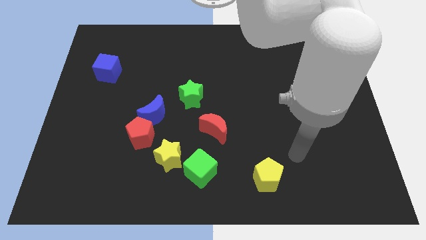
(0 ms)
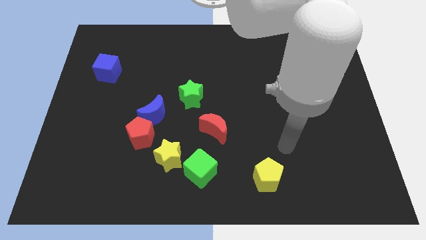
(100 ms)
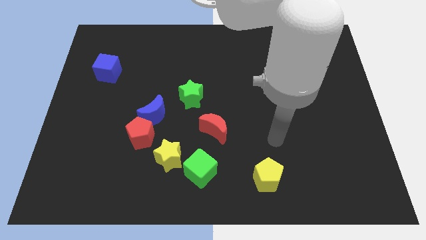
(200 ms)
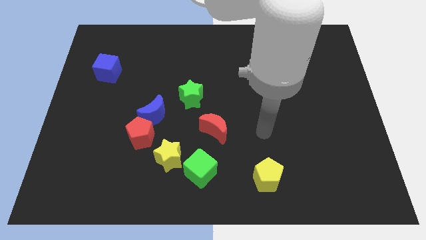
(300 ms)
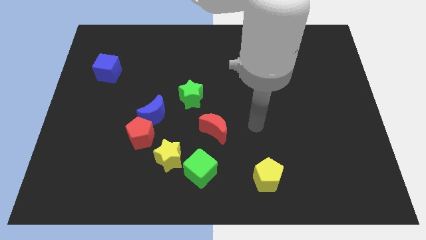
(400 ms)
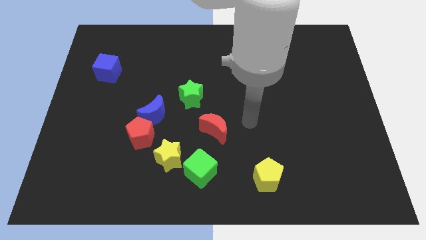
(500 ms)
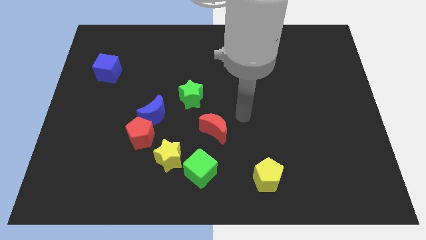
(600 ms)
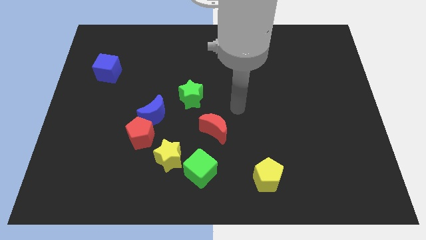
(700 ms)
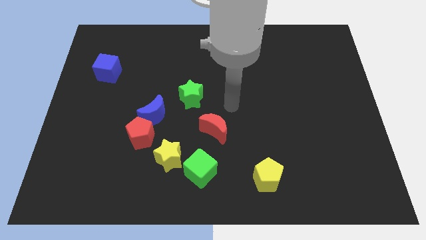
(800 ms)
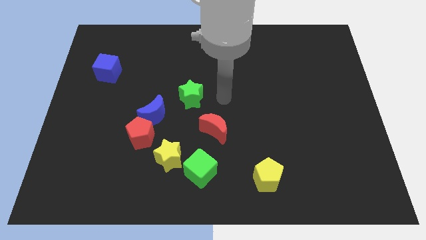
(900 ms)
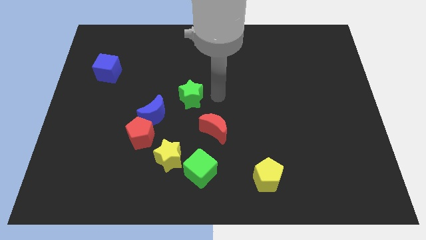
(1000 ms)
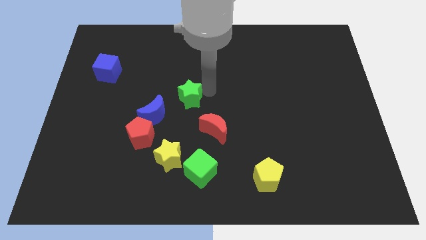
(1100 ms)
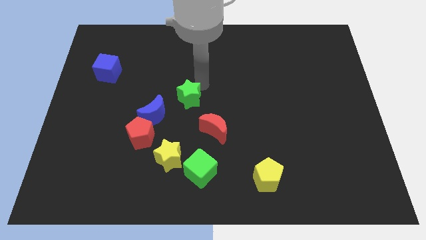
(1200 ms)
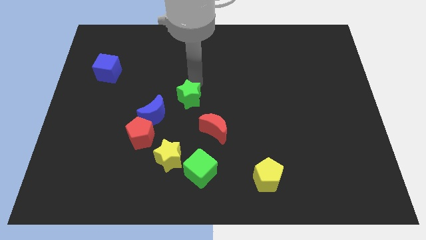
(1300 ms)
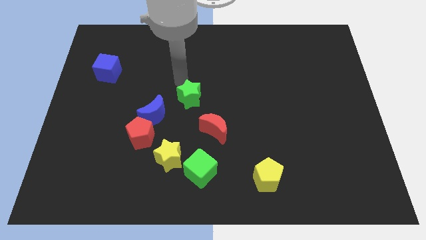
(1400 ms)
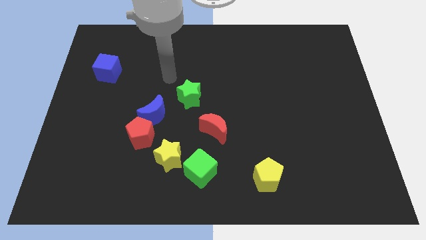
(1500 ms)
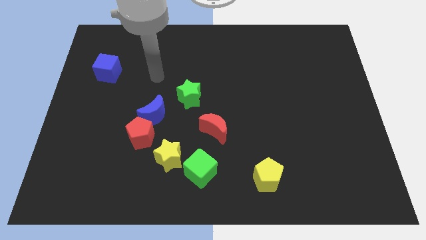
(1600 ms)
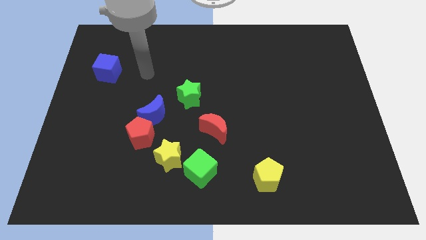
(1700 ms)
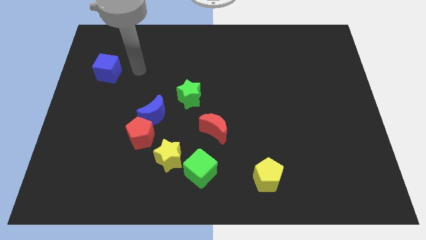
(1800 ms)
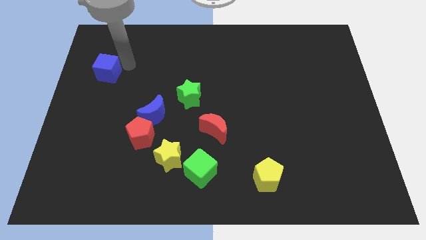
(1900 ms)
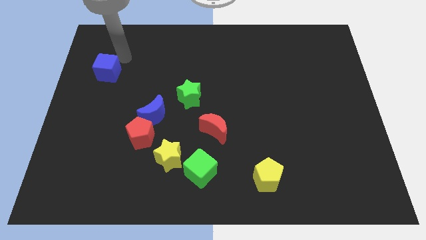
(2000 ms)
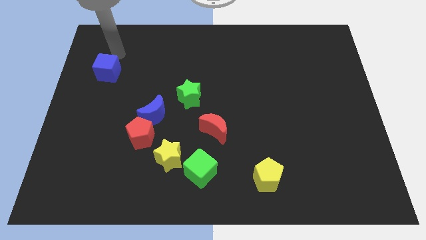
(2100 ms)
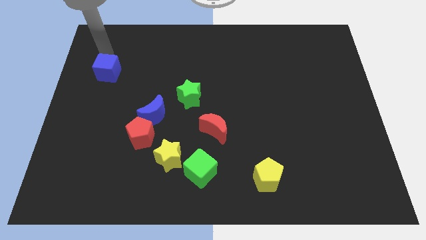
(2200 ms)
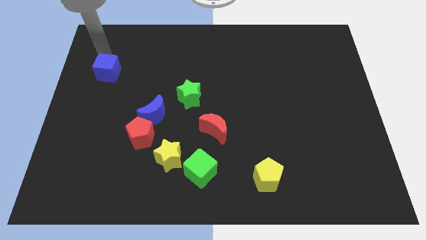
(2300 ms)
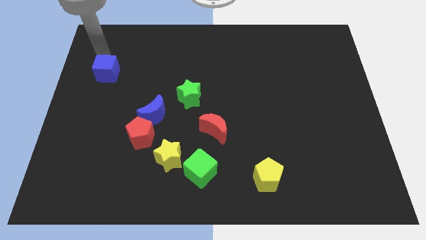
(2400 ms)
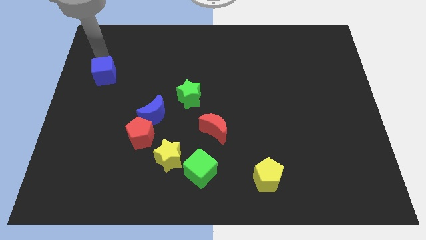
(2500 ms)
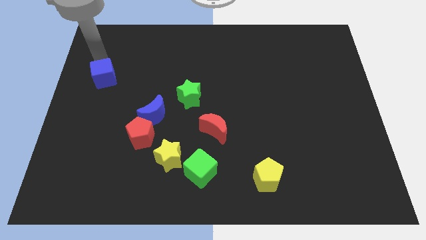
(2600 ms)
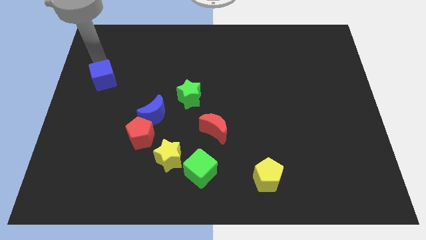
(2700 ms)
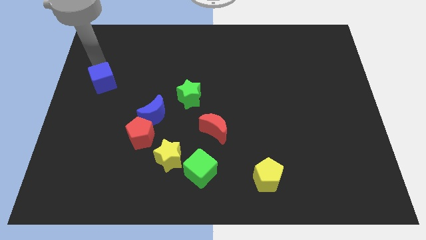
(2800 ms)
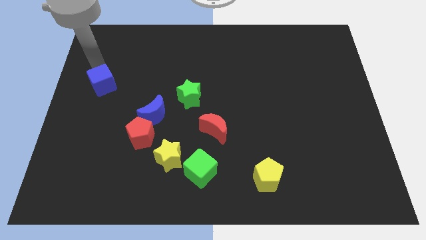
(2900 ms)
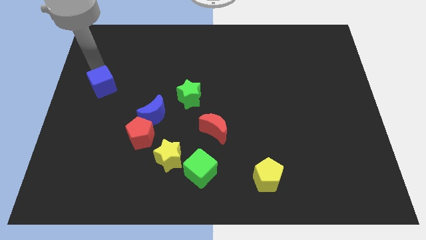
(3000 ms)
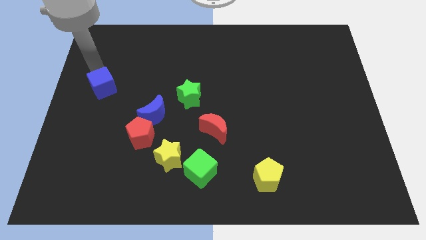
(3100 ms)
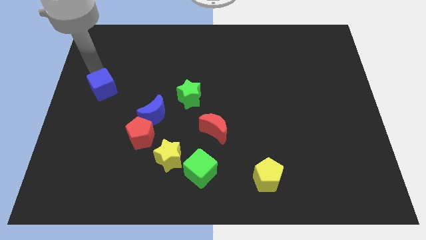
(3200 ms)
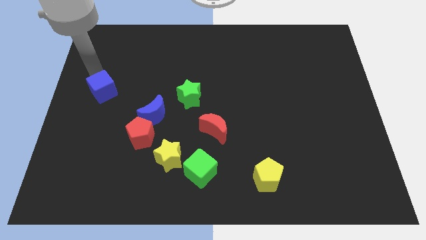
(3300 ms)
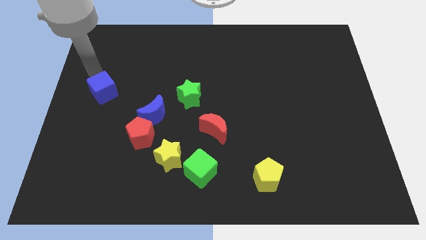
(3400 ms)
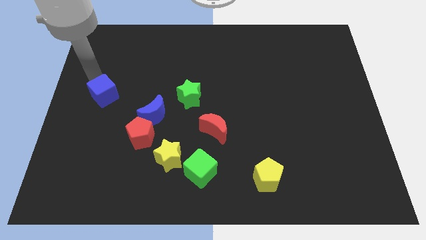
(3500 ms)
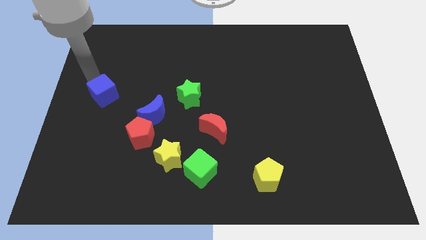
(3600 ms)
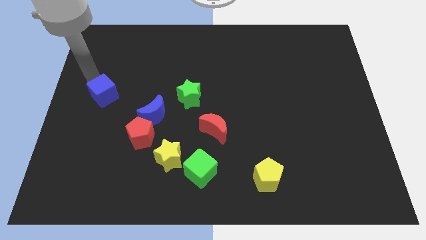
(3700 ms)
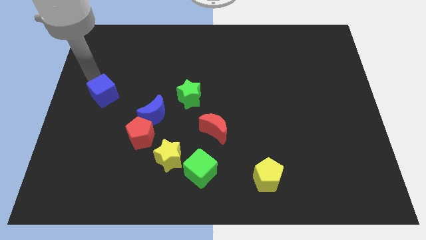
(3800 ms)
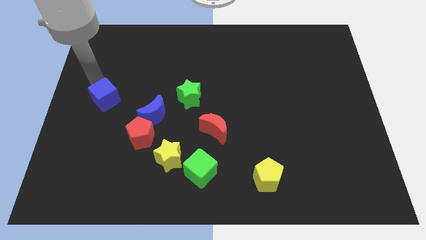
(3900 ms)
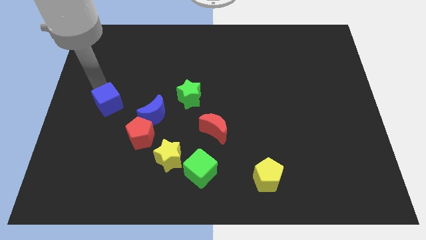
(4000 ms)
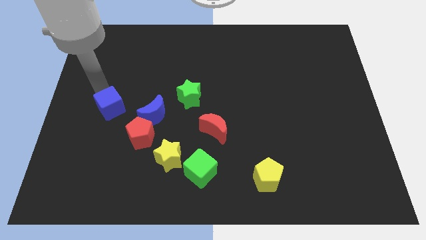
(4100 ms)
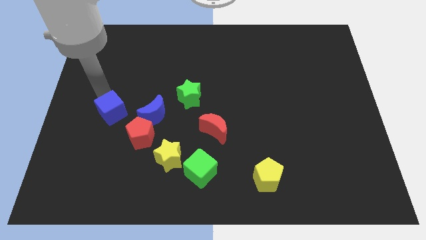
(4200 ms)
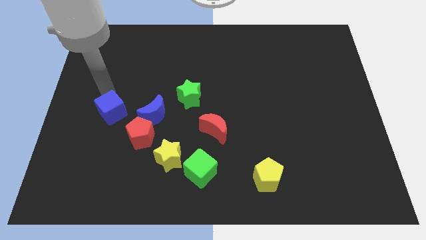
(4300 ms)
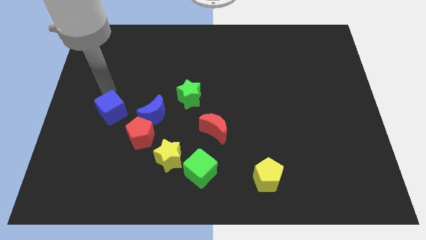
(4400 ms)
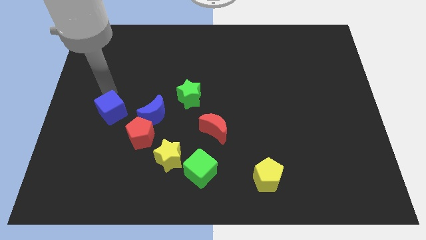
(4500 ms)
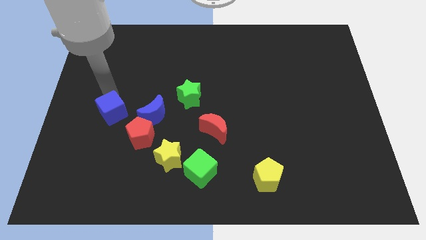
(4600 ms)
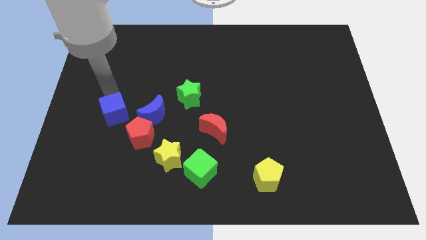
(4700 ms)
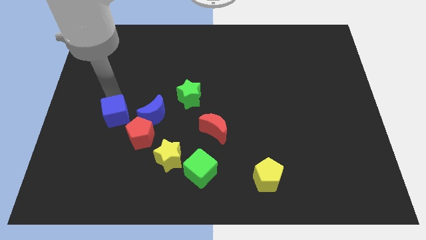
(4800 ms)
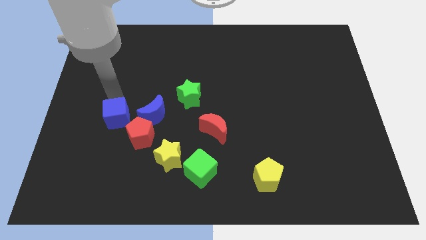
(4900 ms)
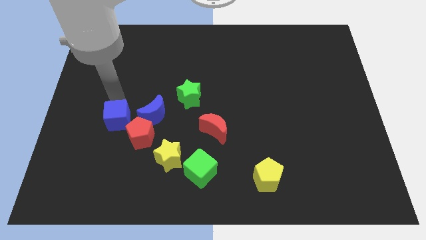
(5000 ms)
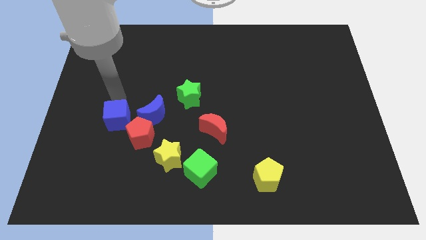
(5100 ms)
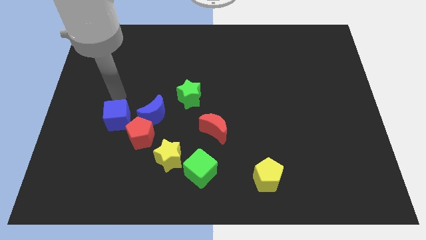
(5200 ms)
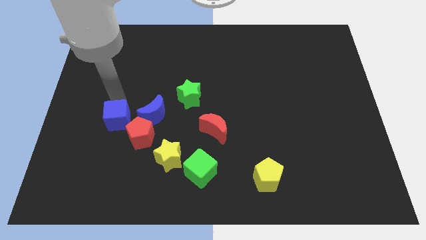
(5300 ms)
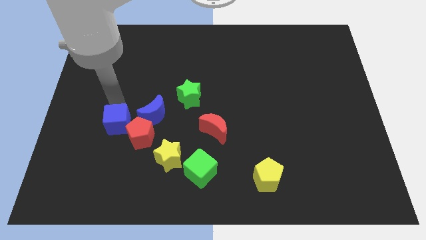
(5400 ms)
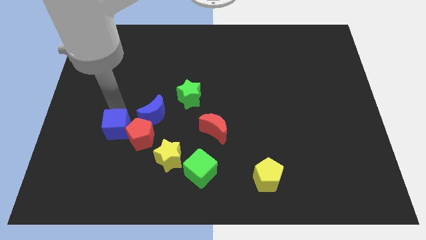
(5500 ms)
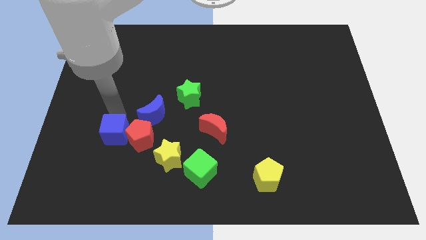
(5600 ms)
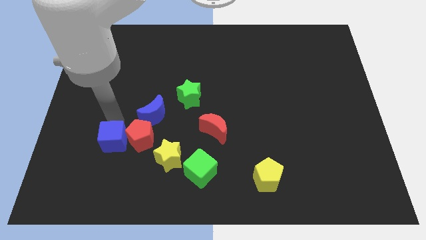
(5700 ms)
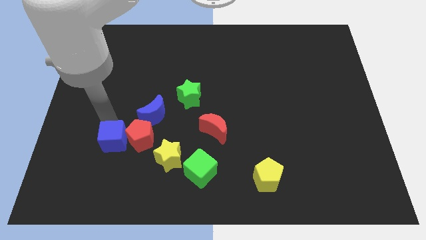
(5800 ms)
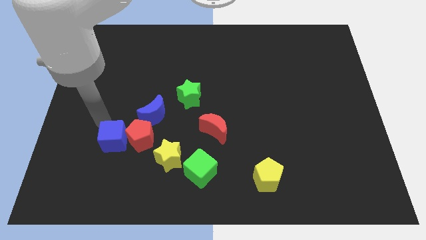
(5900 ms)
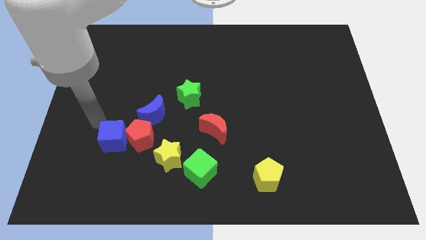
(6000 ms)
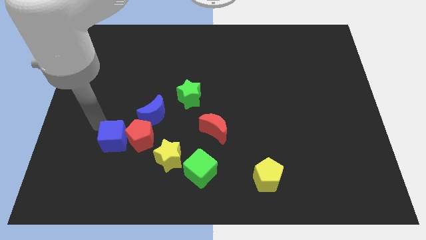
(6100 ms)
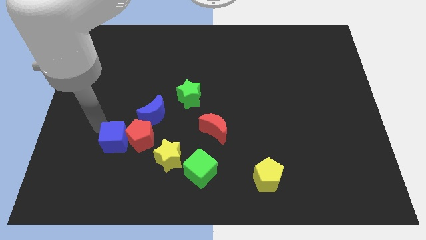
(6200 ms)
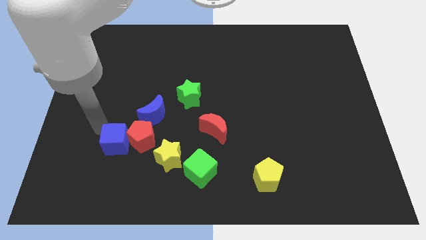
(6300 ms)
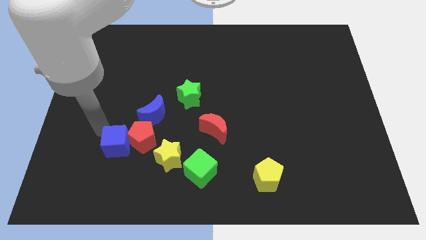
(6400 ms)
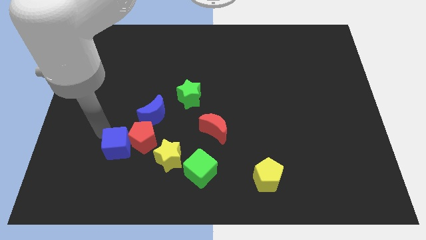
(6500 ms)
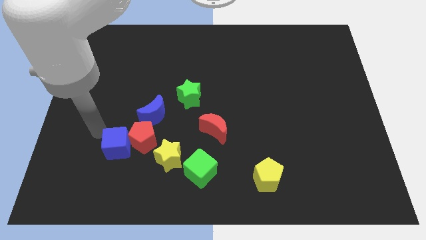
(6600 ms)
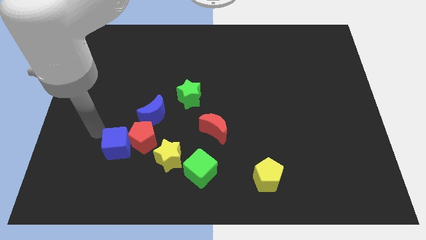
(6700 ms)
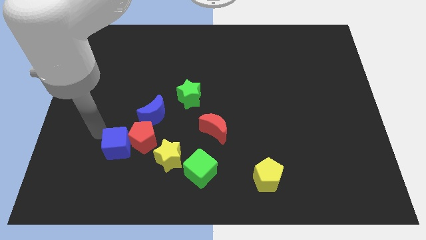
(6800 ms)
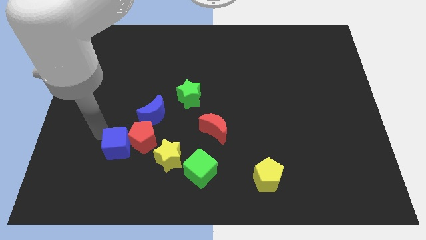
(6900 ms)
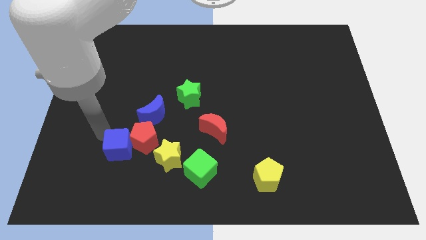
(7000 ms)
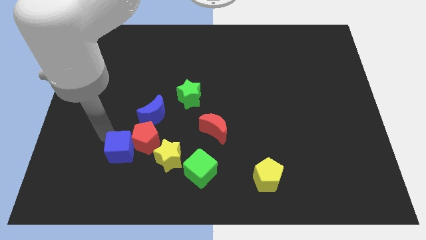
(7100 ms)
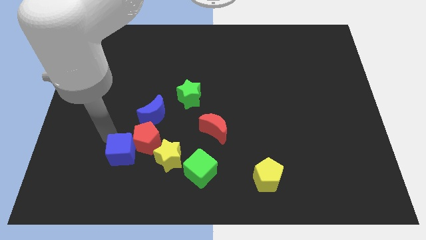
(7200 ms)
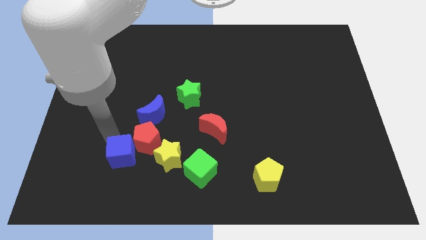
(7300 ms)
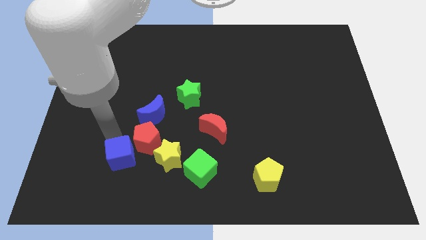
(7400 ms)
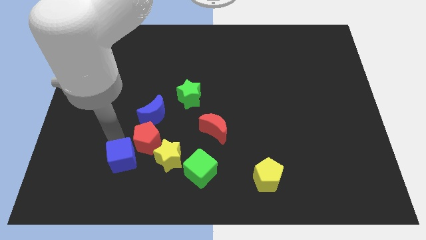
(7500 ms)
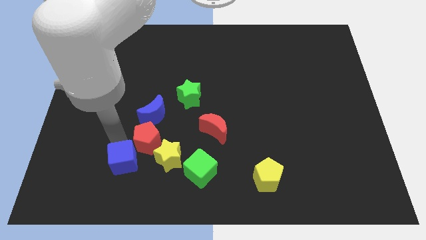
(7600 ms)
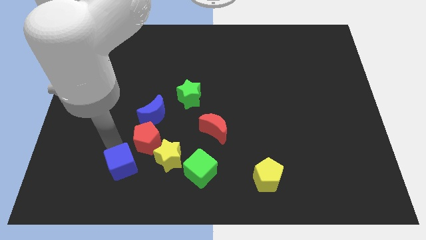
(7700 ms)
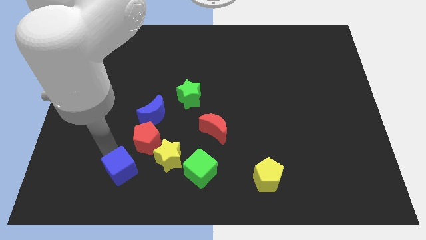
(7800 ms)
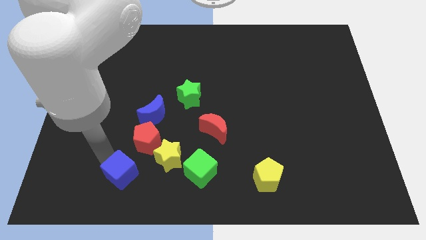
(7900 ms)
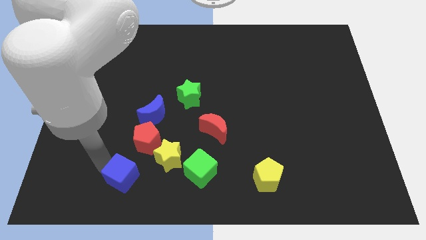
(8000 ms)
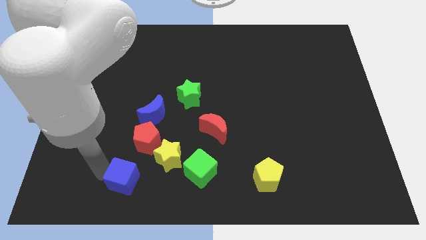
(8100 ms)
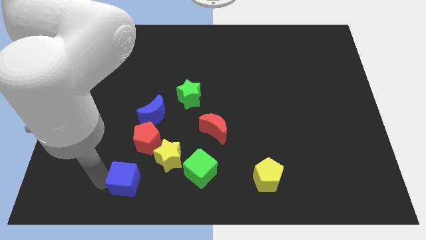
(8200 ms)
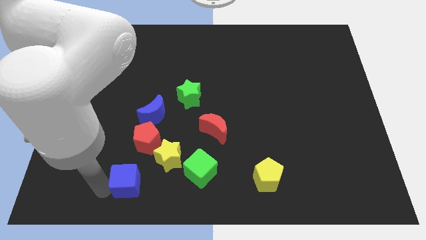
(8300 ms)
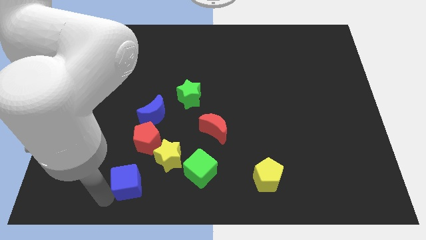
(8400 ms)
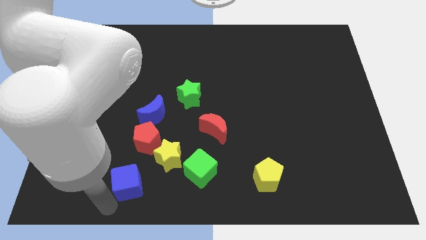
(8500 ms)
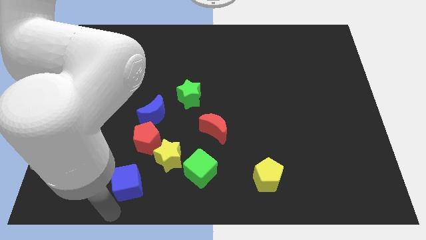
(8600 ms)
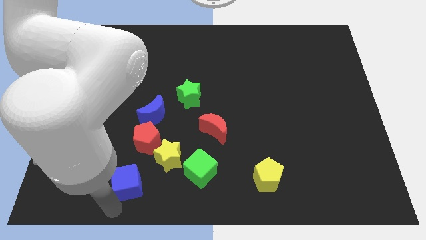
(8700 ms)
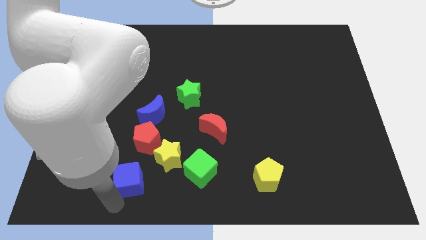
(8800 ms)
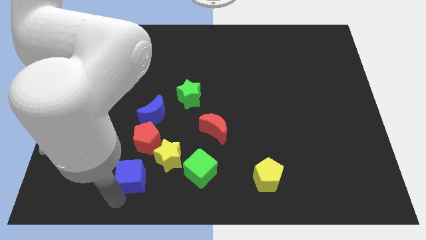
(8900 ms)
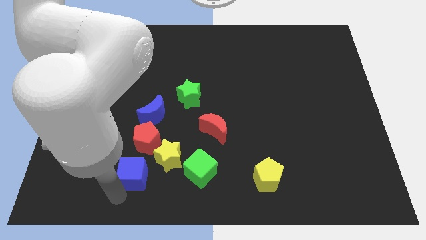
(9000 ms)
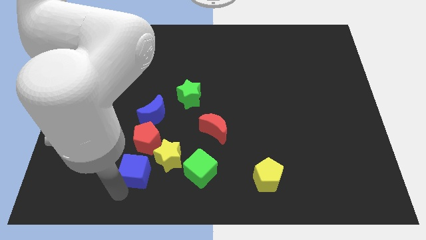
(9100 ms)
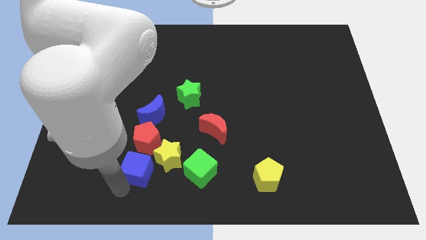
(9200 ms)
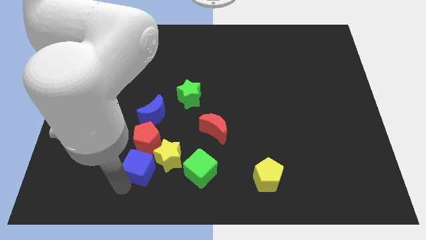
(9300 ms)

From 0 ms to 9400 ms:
move the blue cube downwards and to the right diagonally
